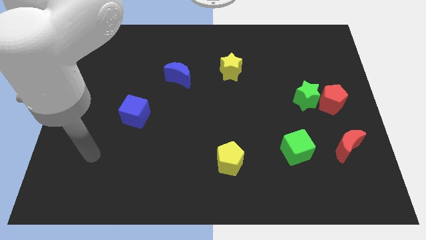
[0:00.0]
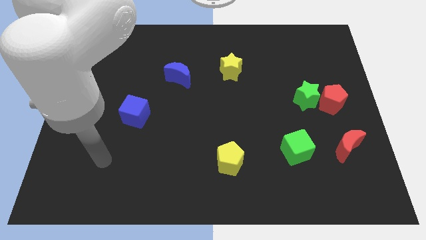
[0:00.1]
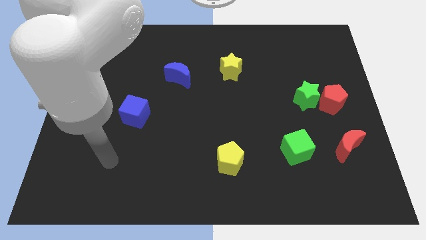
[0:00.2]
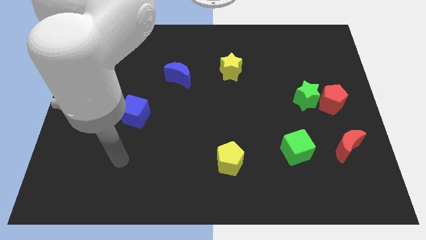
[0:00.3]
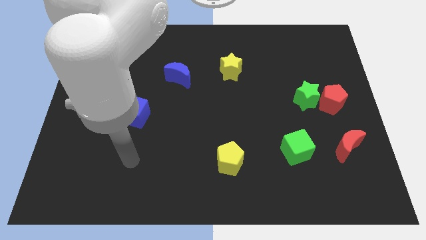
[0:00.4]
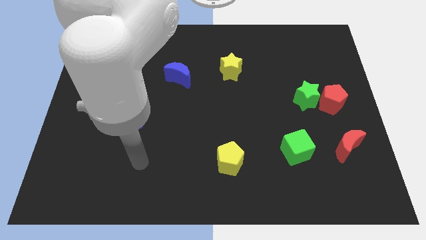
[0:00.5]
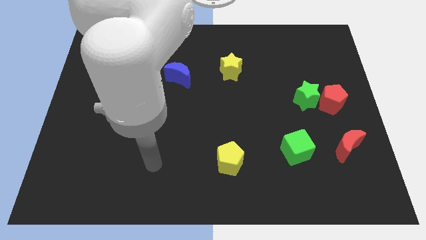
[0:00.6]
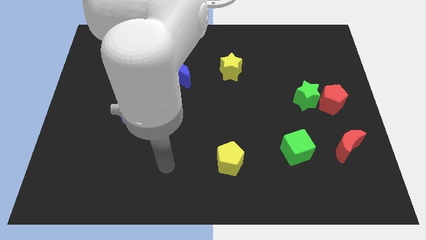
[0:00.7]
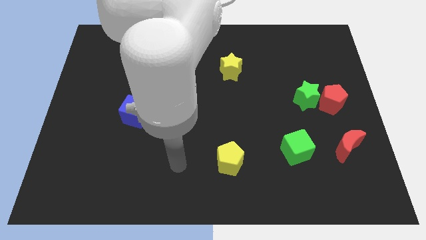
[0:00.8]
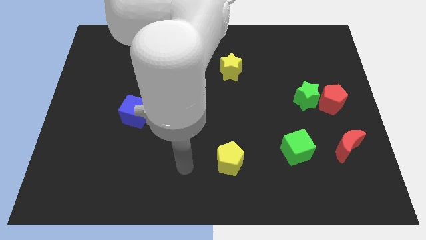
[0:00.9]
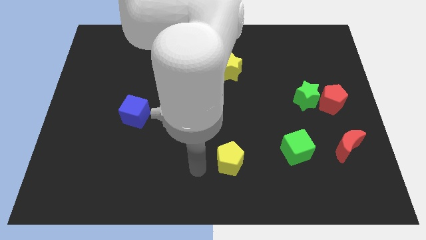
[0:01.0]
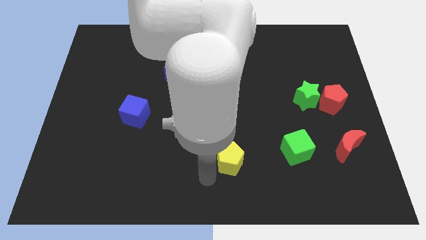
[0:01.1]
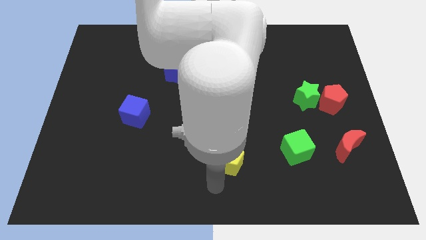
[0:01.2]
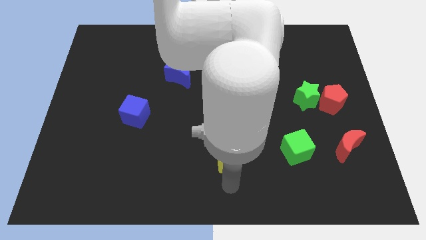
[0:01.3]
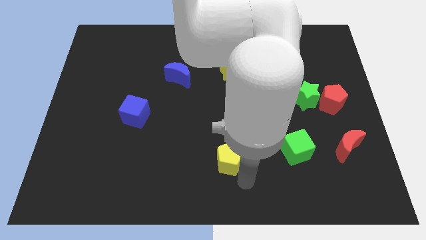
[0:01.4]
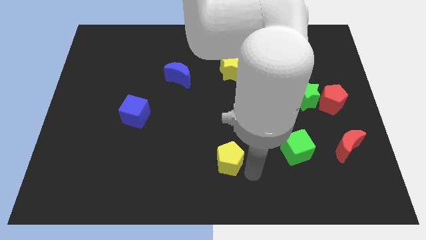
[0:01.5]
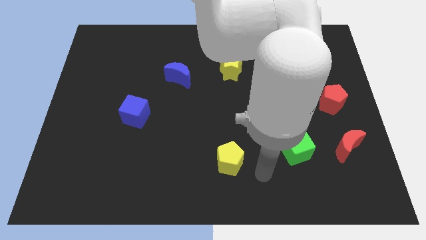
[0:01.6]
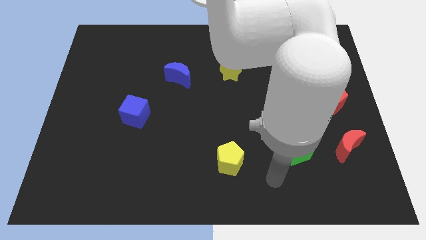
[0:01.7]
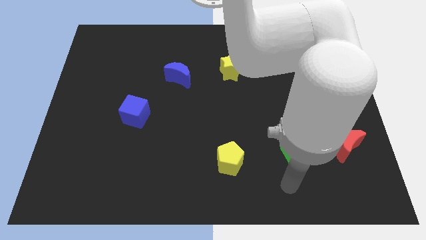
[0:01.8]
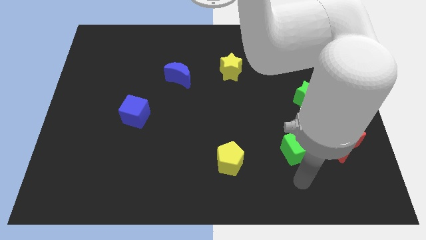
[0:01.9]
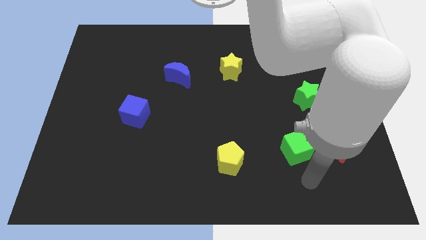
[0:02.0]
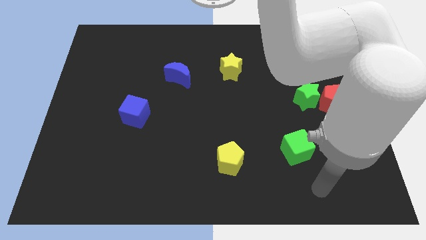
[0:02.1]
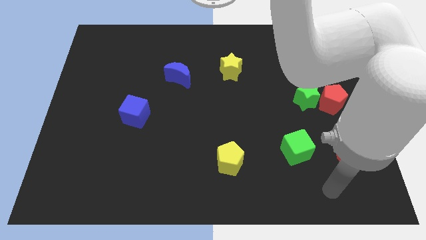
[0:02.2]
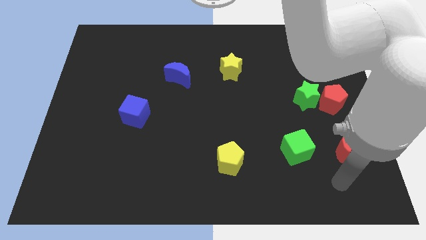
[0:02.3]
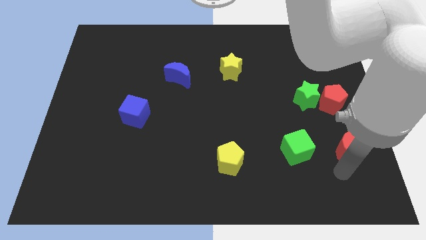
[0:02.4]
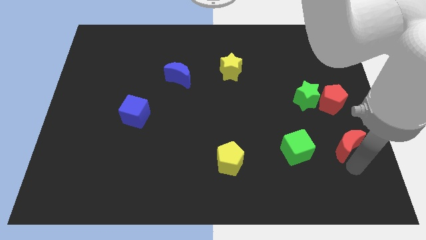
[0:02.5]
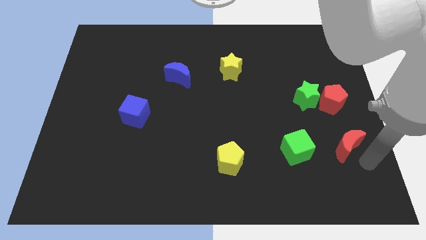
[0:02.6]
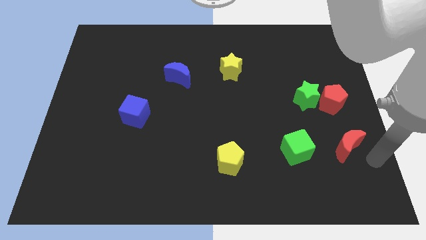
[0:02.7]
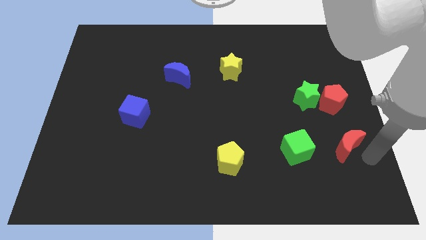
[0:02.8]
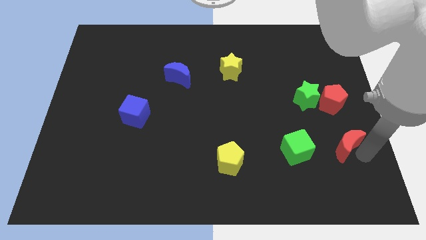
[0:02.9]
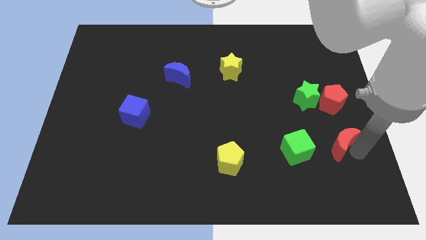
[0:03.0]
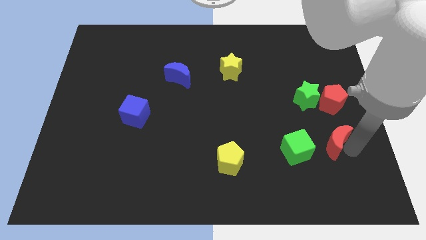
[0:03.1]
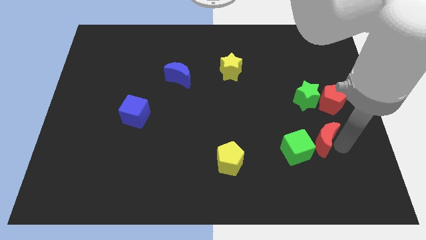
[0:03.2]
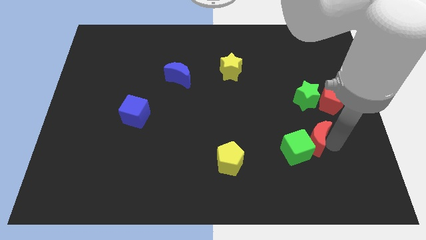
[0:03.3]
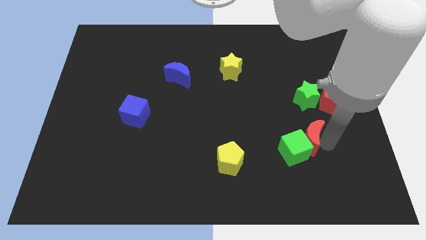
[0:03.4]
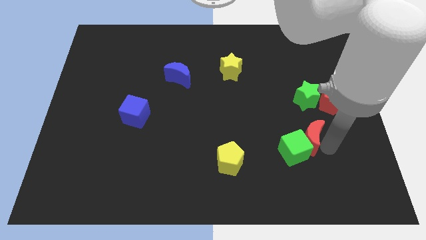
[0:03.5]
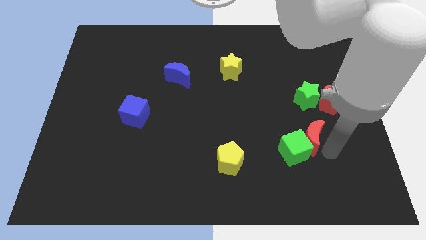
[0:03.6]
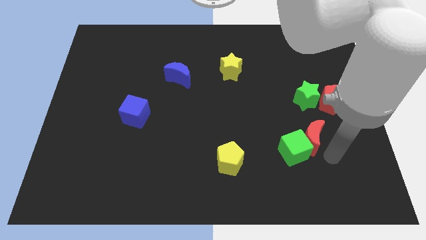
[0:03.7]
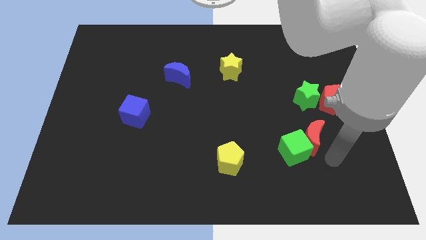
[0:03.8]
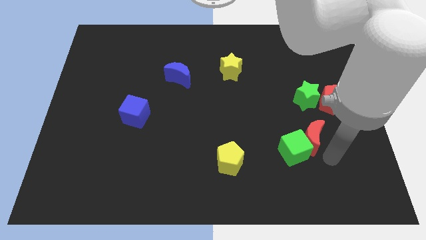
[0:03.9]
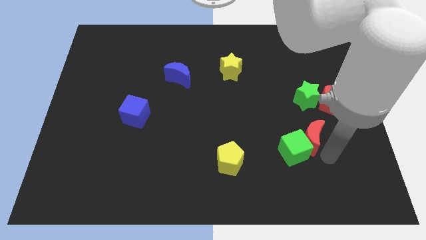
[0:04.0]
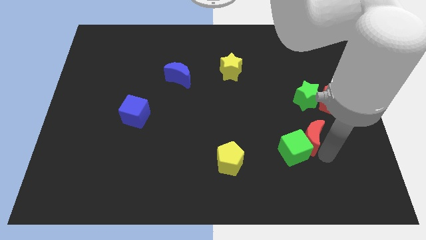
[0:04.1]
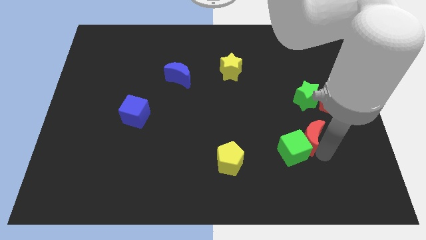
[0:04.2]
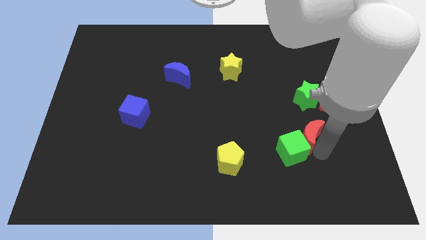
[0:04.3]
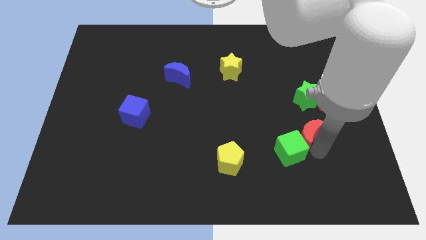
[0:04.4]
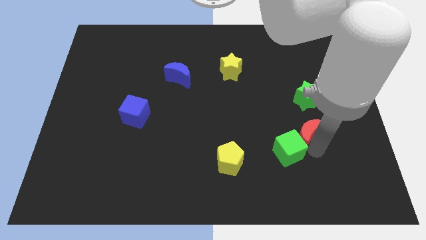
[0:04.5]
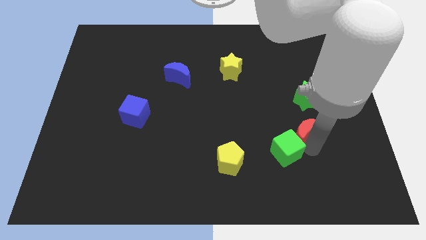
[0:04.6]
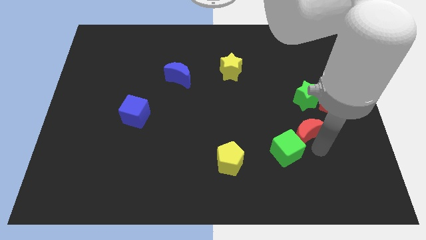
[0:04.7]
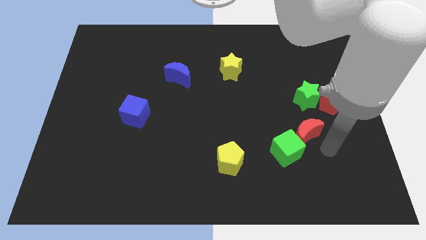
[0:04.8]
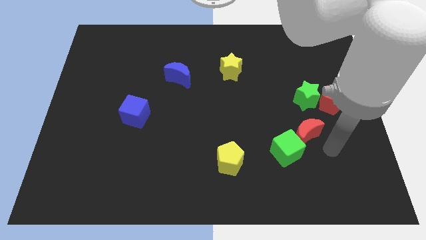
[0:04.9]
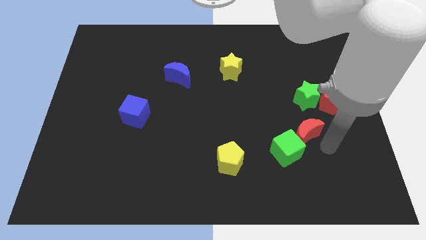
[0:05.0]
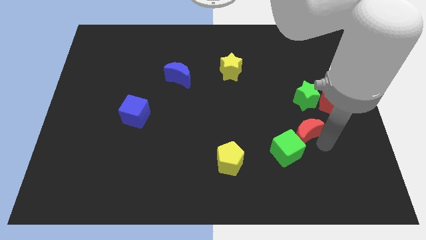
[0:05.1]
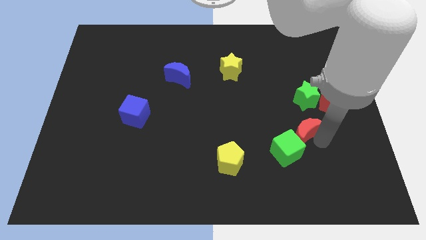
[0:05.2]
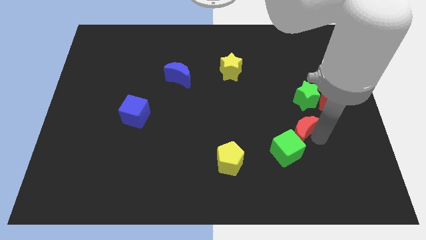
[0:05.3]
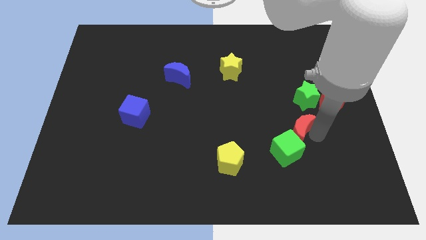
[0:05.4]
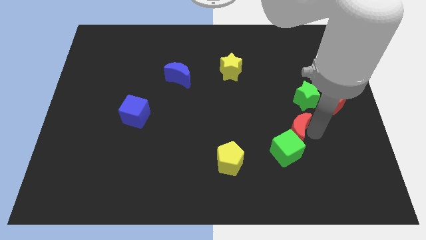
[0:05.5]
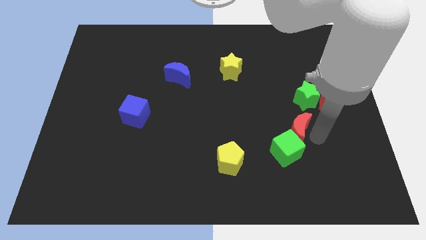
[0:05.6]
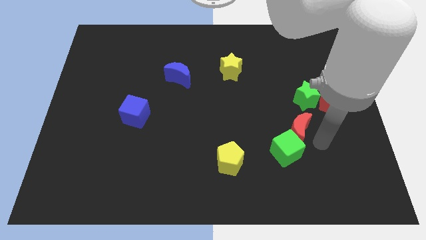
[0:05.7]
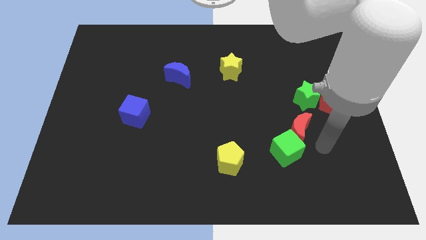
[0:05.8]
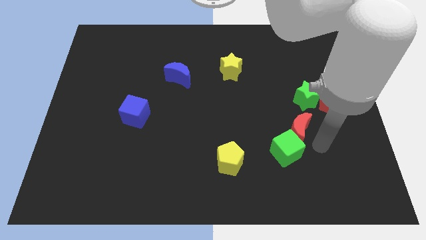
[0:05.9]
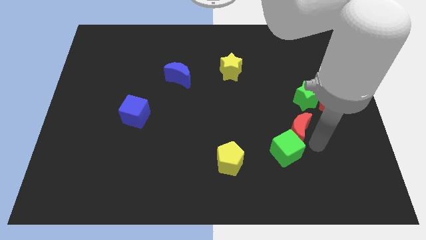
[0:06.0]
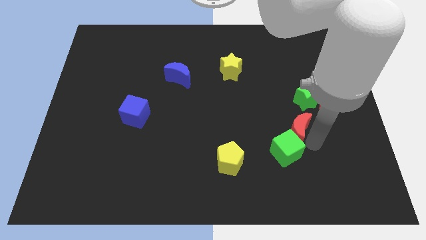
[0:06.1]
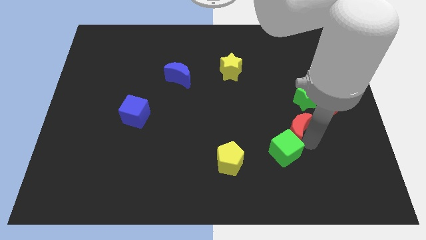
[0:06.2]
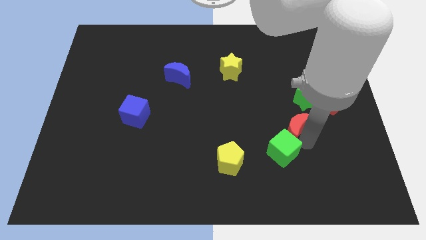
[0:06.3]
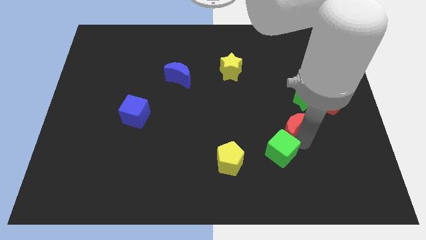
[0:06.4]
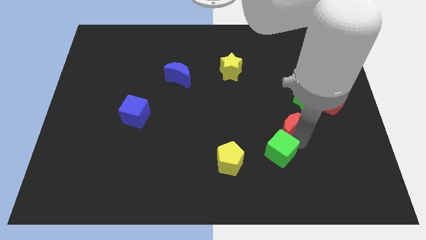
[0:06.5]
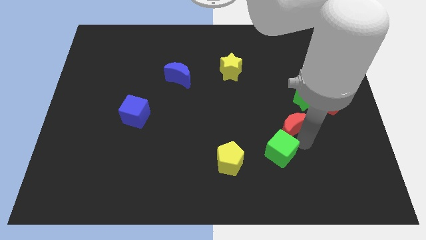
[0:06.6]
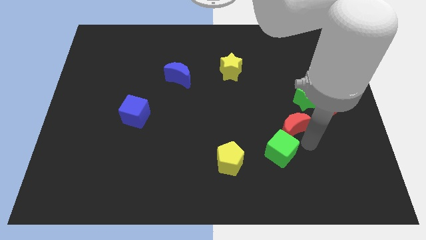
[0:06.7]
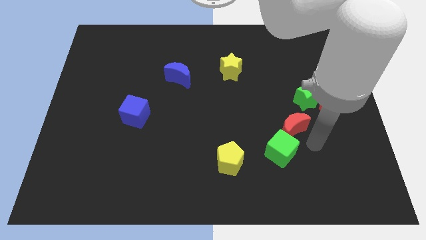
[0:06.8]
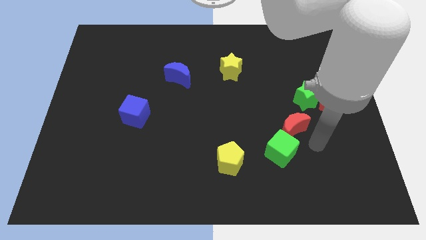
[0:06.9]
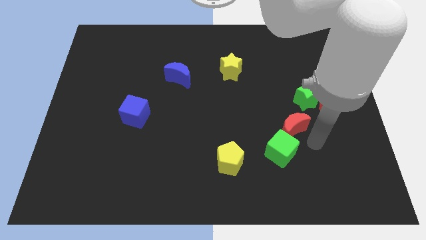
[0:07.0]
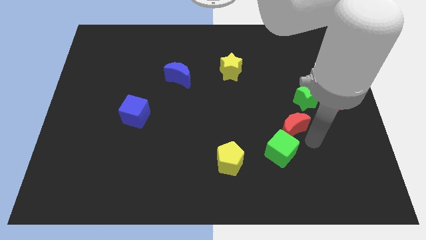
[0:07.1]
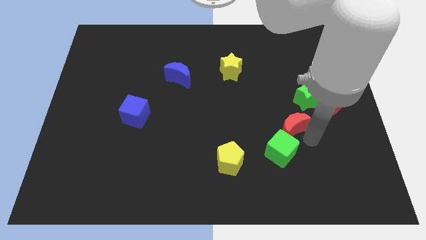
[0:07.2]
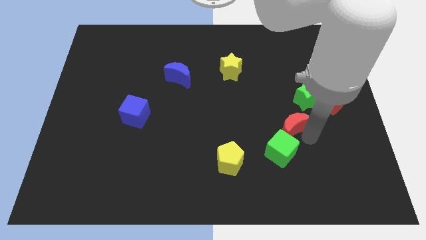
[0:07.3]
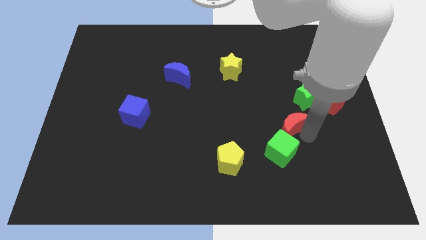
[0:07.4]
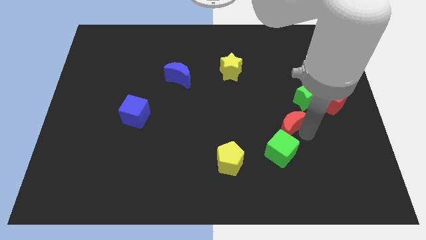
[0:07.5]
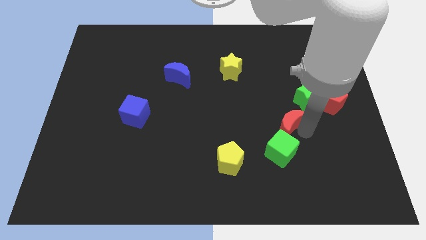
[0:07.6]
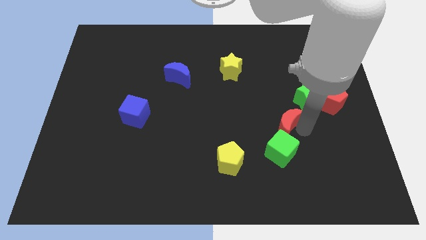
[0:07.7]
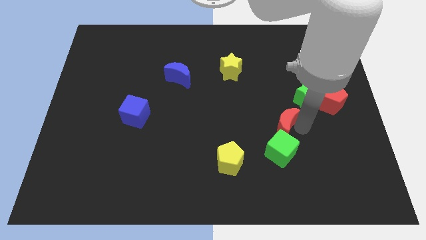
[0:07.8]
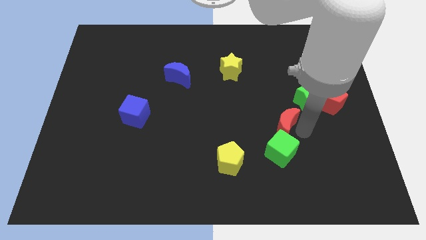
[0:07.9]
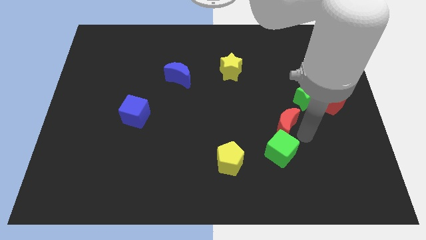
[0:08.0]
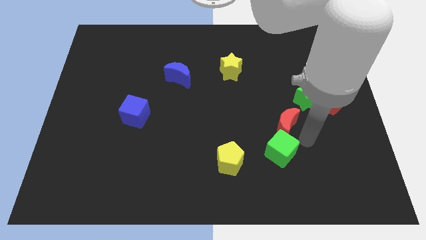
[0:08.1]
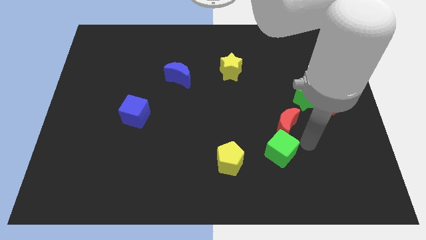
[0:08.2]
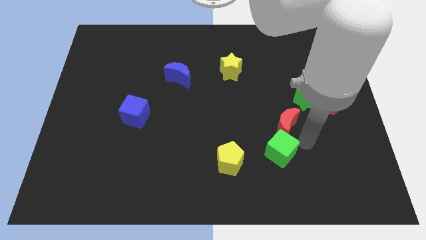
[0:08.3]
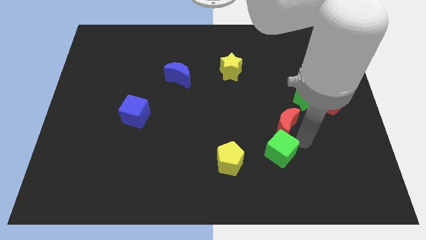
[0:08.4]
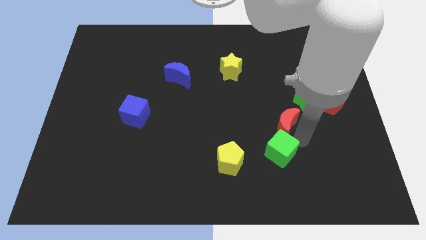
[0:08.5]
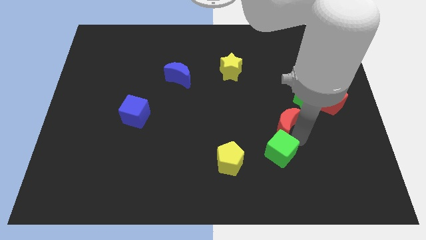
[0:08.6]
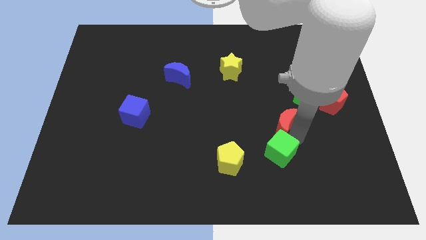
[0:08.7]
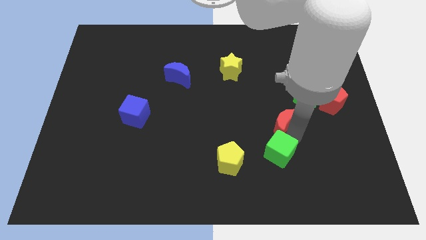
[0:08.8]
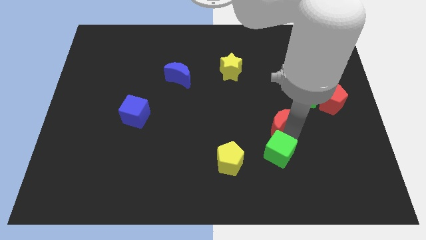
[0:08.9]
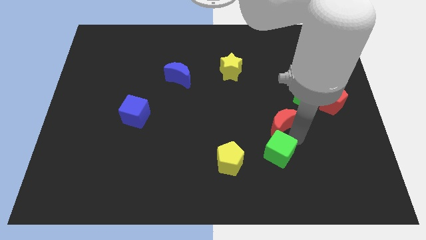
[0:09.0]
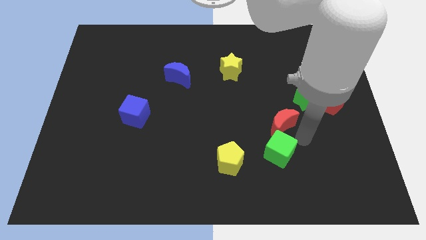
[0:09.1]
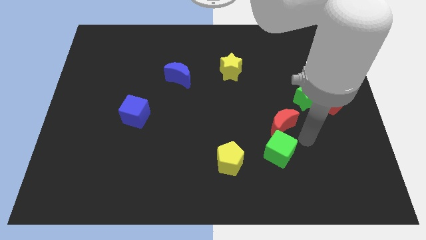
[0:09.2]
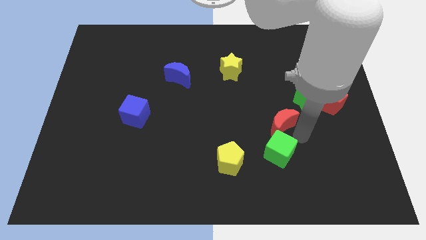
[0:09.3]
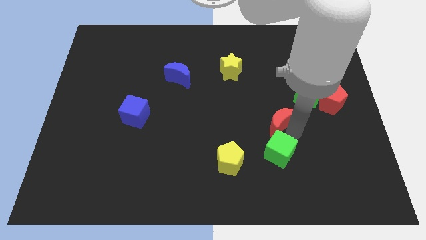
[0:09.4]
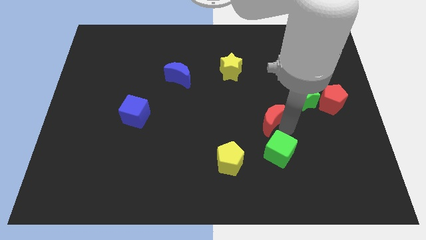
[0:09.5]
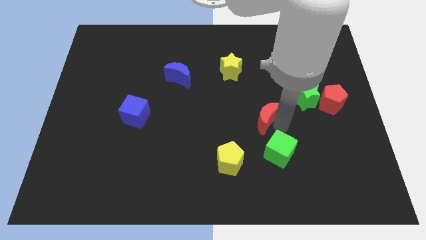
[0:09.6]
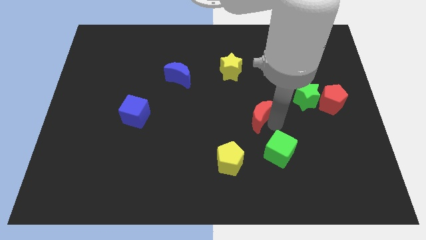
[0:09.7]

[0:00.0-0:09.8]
put the red moon to the middle of the board
